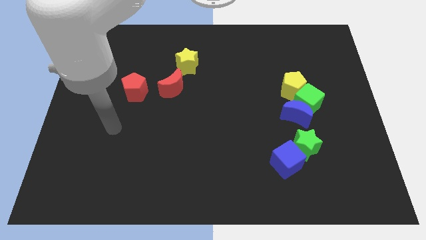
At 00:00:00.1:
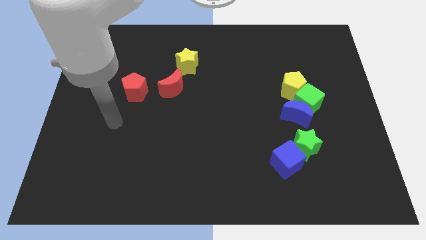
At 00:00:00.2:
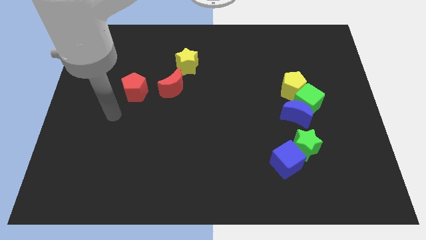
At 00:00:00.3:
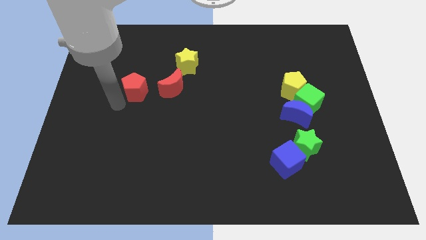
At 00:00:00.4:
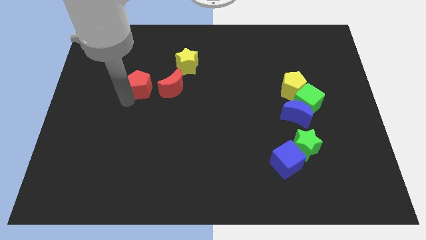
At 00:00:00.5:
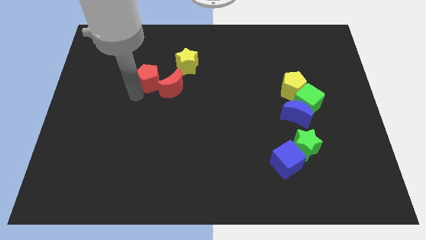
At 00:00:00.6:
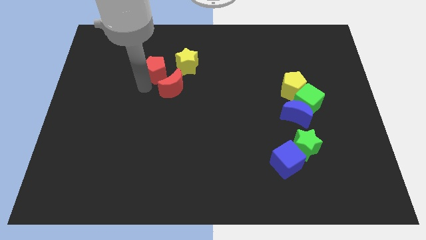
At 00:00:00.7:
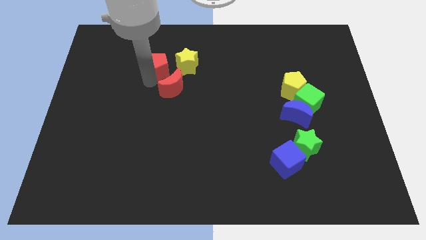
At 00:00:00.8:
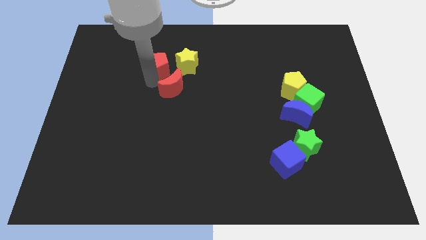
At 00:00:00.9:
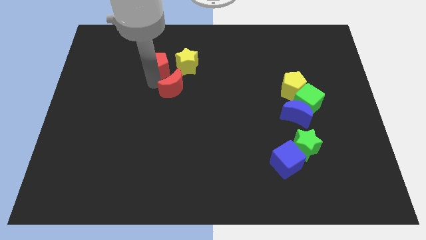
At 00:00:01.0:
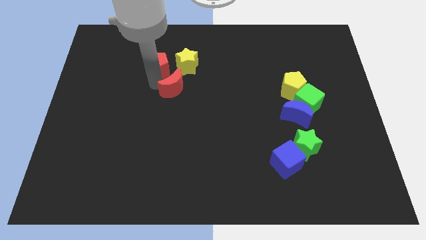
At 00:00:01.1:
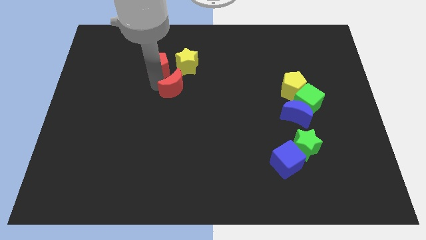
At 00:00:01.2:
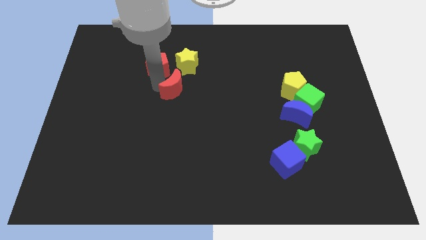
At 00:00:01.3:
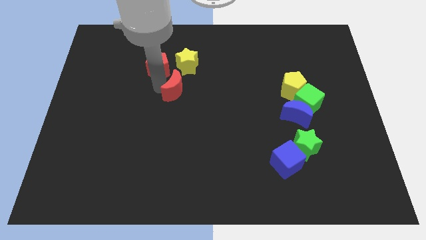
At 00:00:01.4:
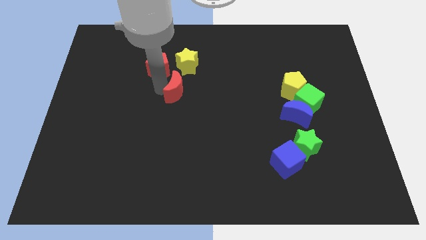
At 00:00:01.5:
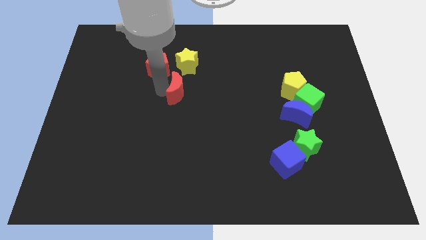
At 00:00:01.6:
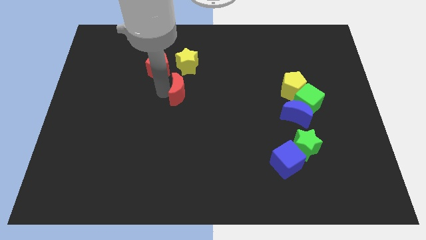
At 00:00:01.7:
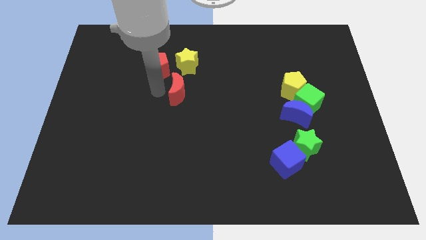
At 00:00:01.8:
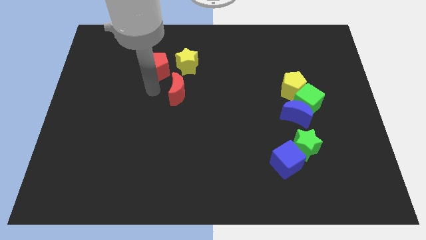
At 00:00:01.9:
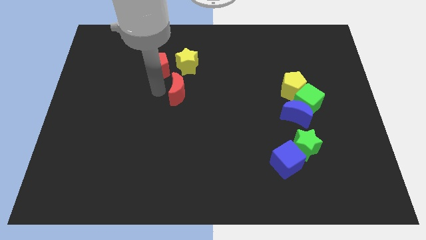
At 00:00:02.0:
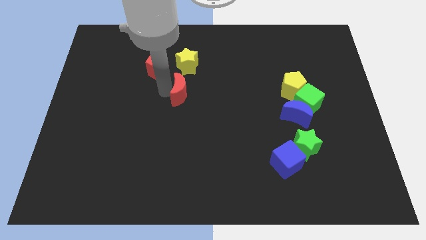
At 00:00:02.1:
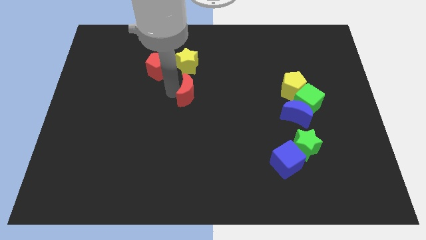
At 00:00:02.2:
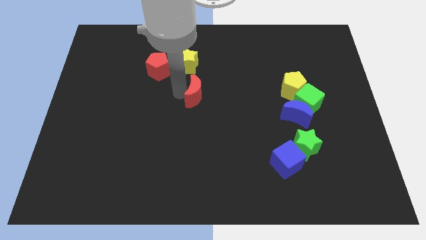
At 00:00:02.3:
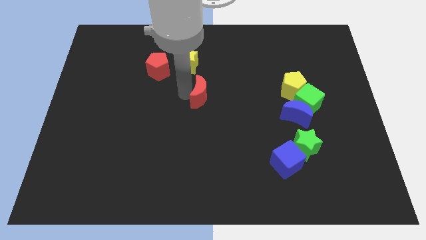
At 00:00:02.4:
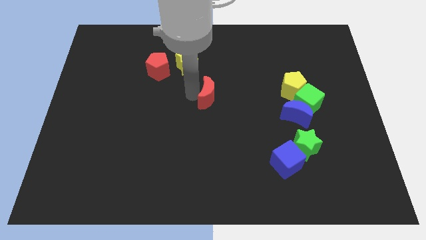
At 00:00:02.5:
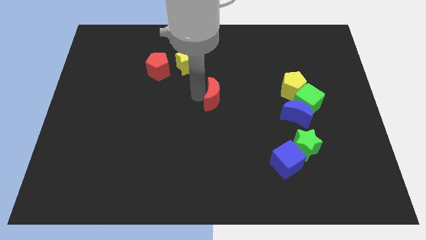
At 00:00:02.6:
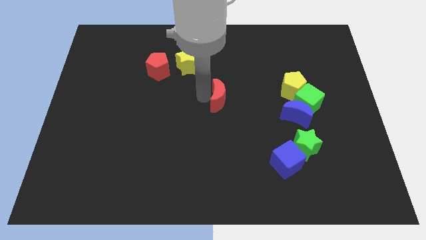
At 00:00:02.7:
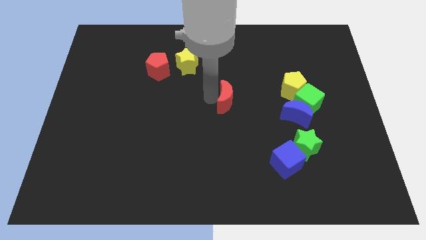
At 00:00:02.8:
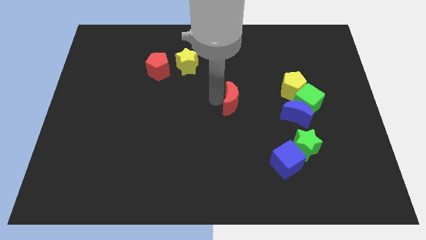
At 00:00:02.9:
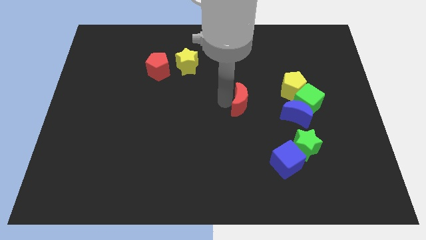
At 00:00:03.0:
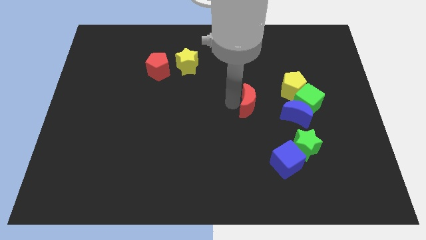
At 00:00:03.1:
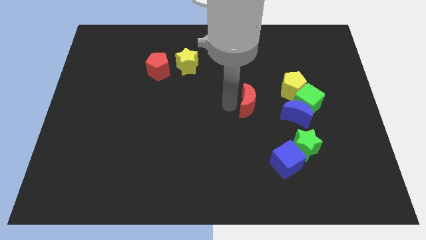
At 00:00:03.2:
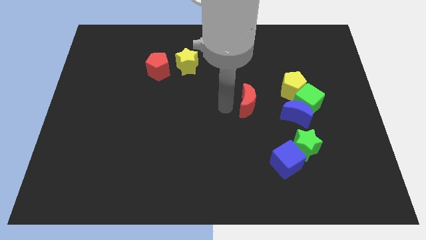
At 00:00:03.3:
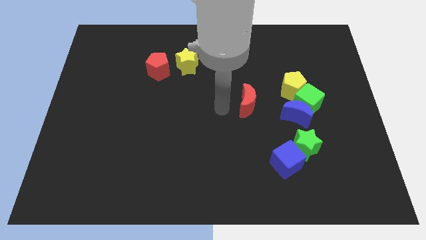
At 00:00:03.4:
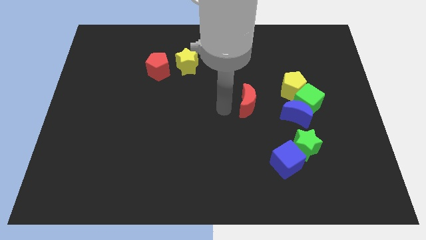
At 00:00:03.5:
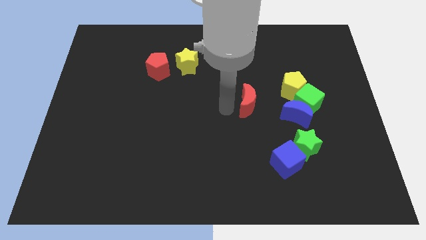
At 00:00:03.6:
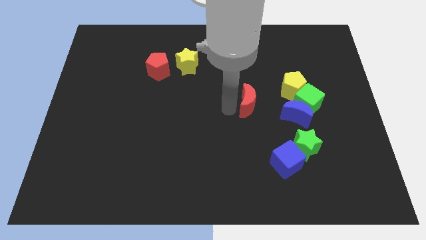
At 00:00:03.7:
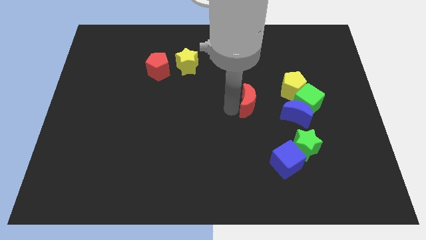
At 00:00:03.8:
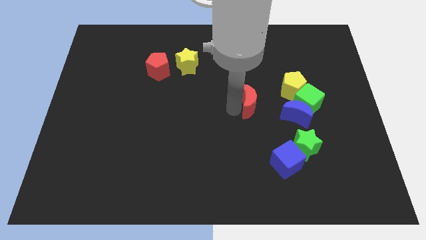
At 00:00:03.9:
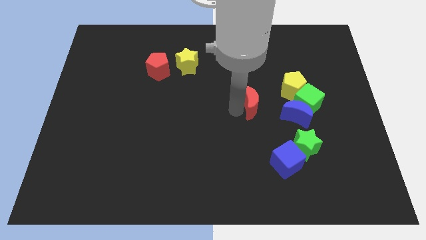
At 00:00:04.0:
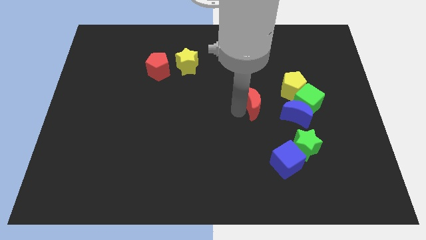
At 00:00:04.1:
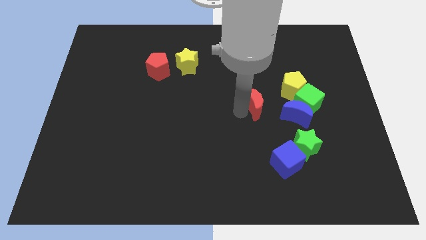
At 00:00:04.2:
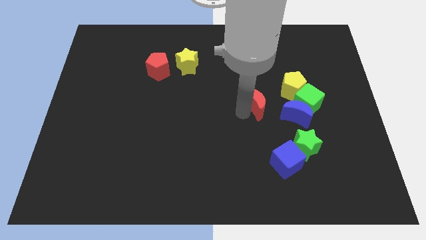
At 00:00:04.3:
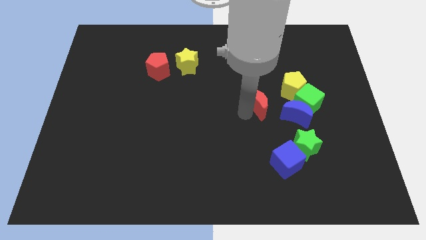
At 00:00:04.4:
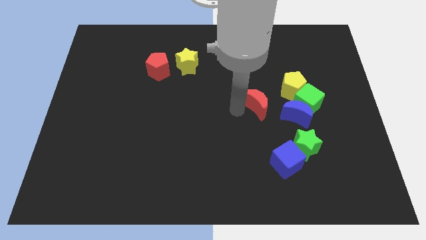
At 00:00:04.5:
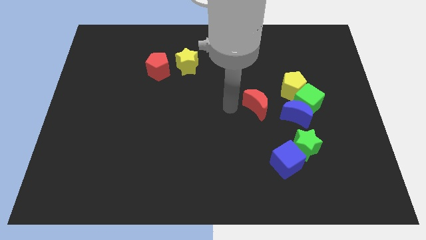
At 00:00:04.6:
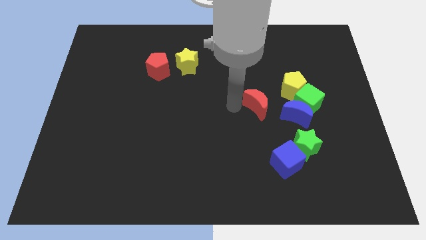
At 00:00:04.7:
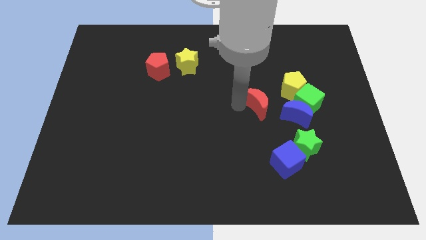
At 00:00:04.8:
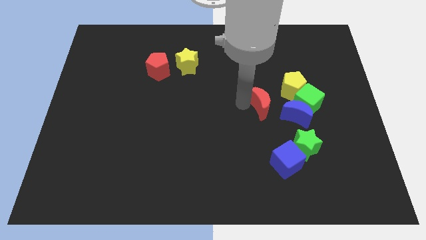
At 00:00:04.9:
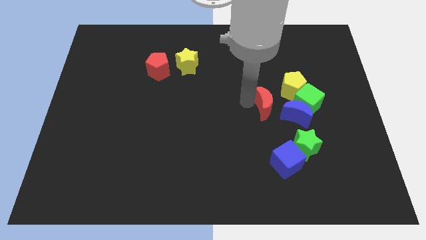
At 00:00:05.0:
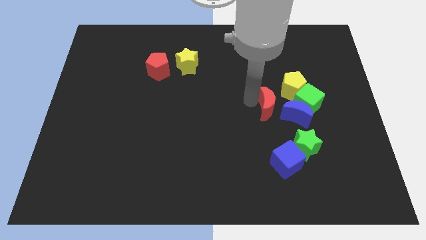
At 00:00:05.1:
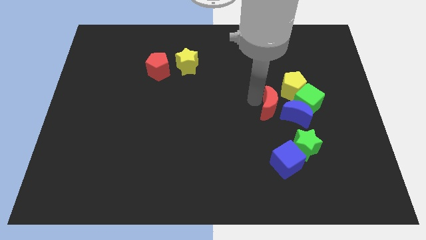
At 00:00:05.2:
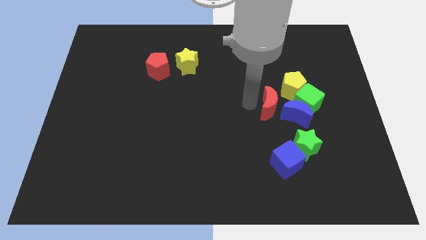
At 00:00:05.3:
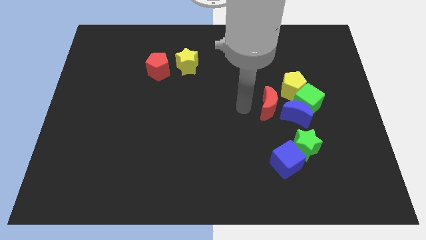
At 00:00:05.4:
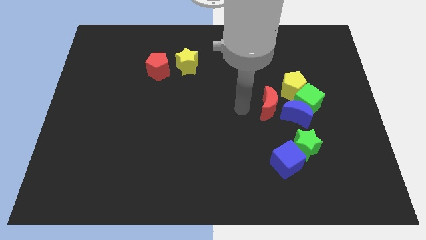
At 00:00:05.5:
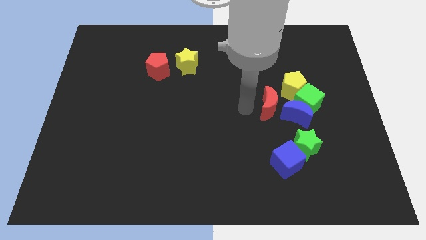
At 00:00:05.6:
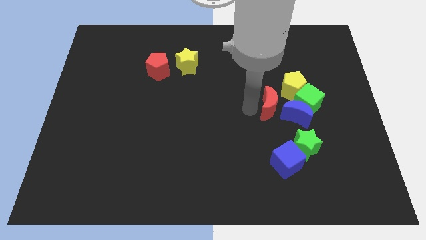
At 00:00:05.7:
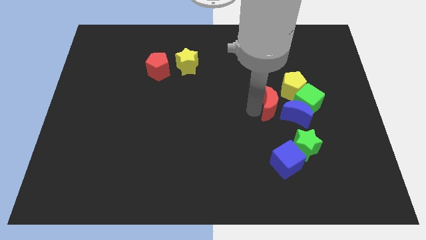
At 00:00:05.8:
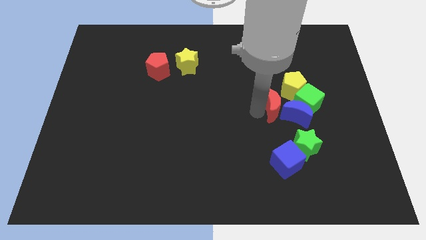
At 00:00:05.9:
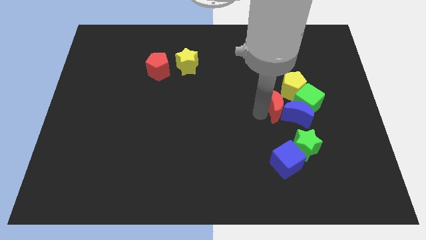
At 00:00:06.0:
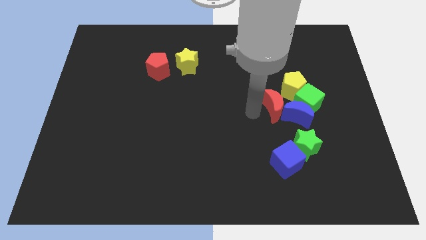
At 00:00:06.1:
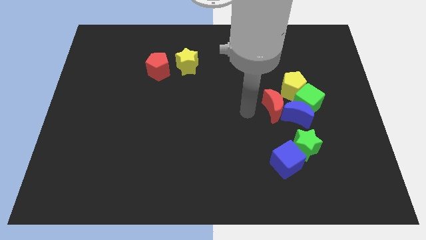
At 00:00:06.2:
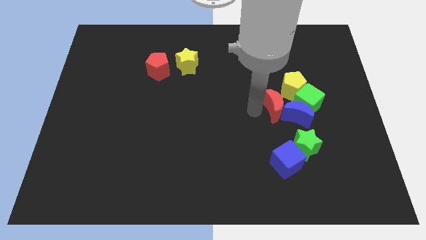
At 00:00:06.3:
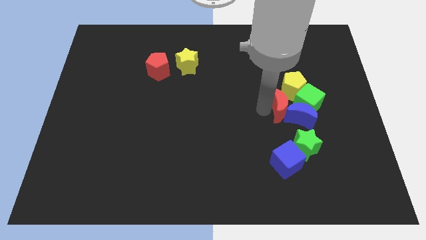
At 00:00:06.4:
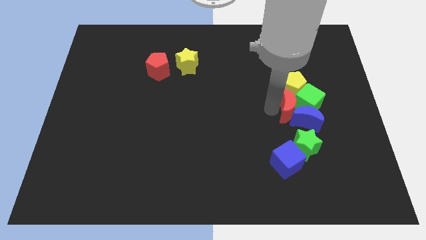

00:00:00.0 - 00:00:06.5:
put the red moon close to the green cube

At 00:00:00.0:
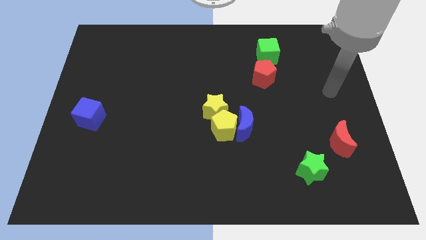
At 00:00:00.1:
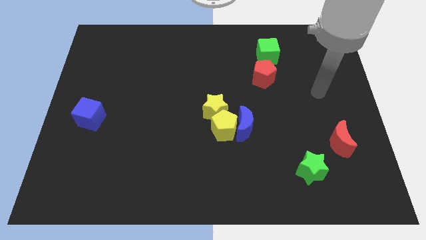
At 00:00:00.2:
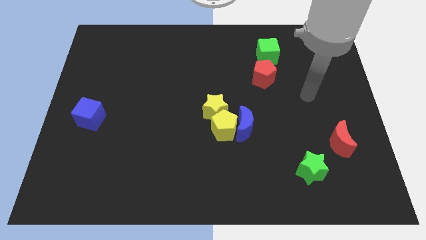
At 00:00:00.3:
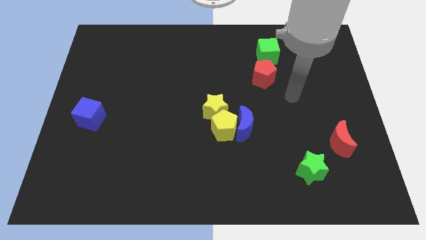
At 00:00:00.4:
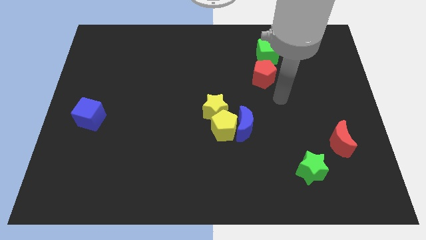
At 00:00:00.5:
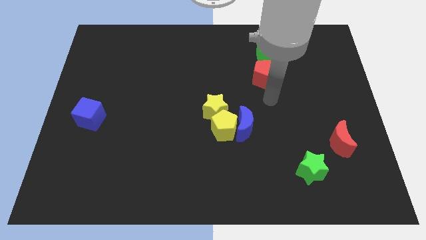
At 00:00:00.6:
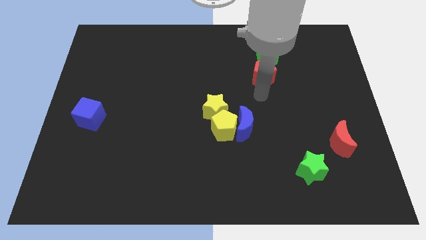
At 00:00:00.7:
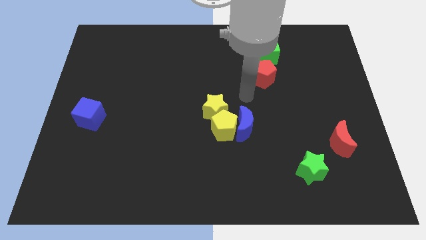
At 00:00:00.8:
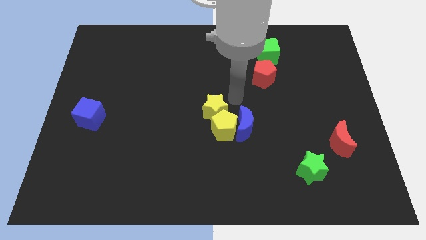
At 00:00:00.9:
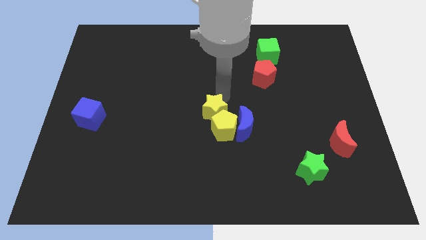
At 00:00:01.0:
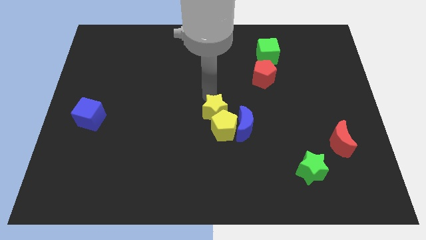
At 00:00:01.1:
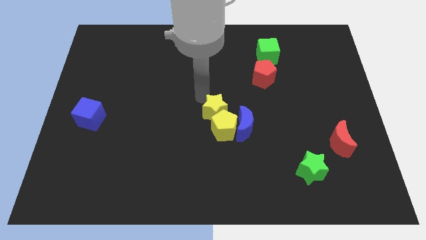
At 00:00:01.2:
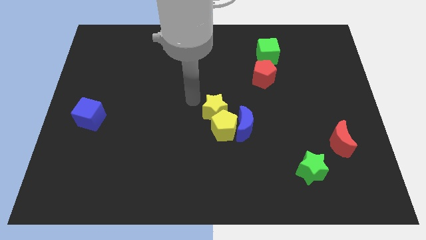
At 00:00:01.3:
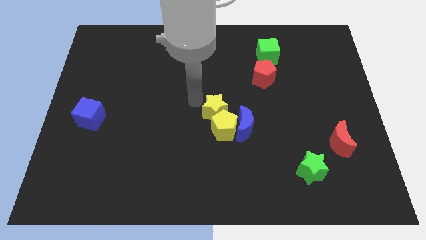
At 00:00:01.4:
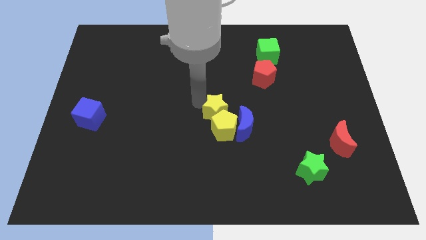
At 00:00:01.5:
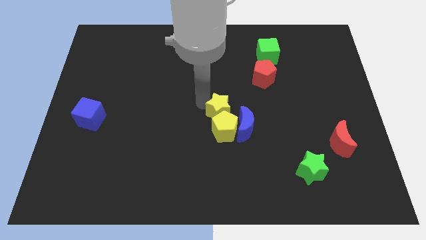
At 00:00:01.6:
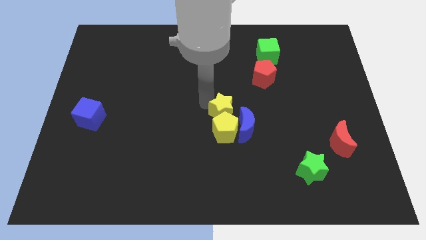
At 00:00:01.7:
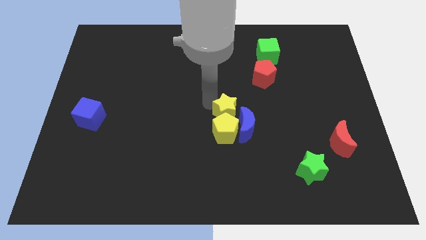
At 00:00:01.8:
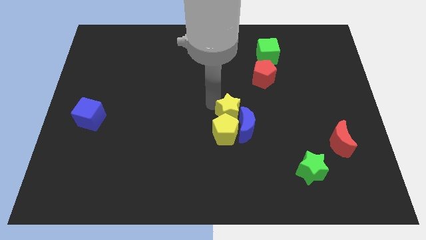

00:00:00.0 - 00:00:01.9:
put the yellow star towards the blue moon
